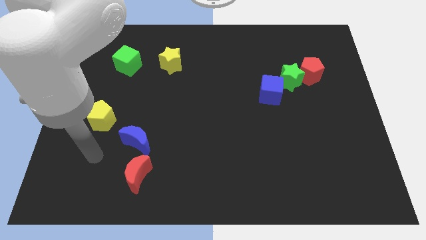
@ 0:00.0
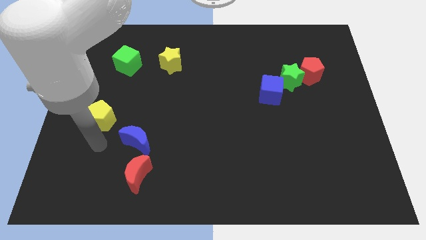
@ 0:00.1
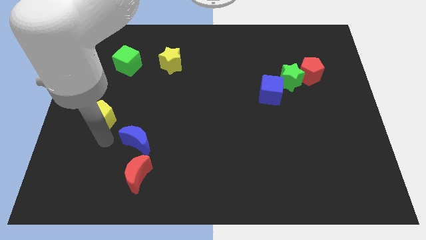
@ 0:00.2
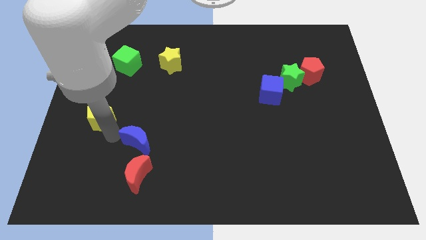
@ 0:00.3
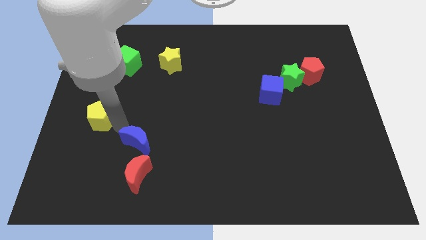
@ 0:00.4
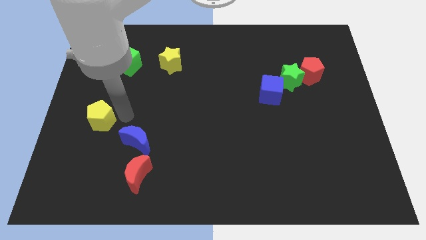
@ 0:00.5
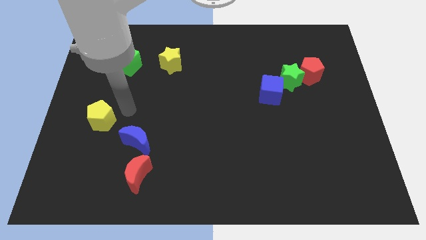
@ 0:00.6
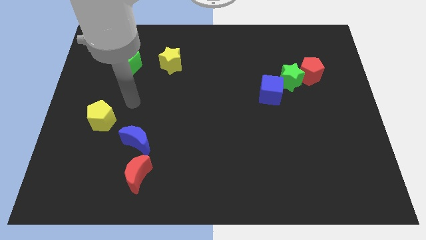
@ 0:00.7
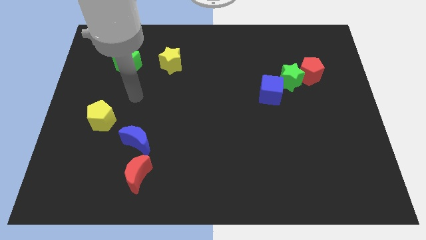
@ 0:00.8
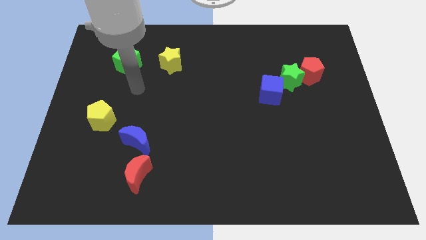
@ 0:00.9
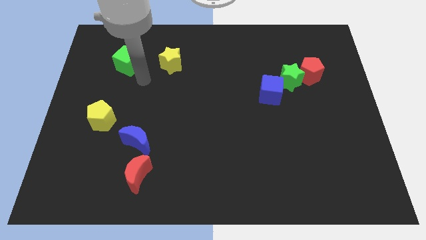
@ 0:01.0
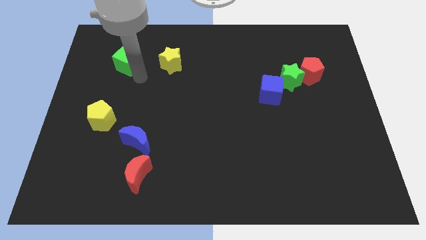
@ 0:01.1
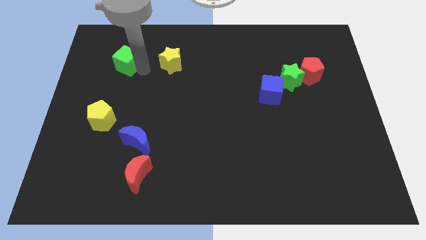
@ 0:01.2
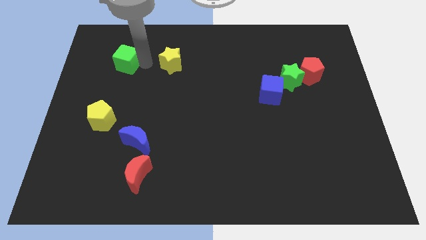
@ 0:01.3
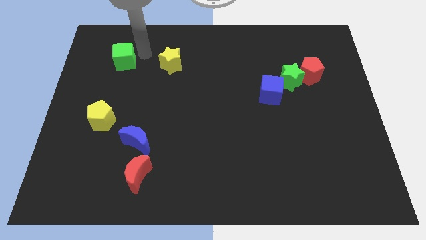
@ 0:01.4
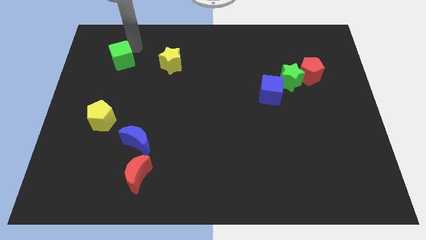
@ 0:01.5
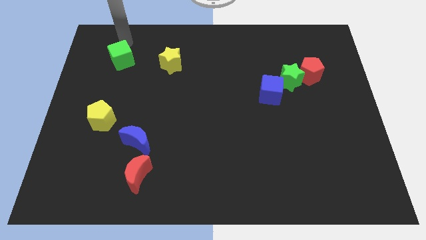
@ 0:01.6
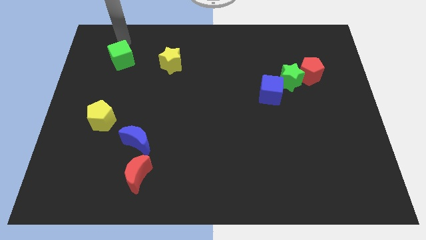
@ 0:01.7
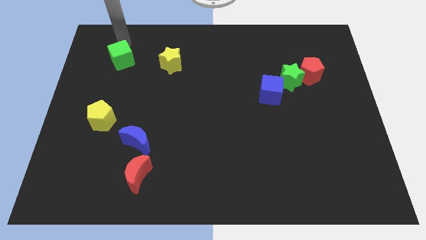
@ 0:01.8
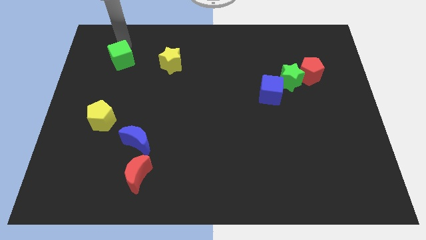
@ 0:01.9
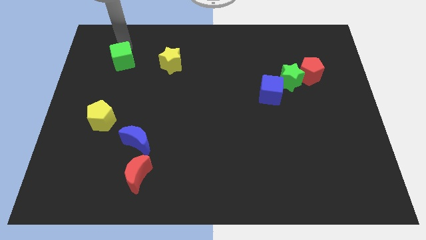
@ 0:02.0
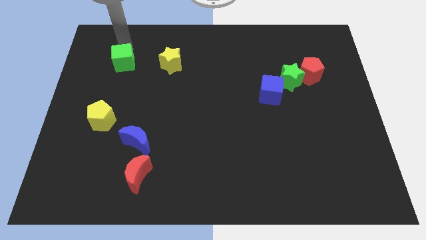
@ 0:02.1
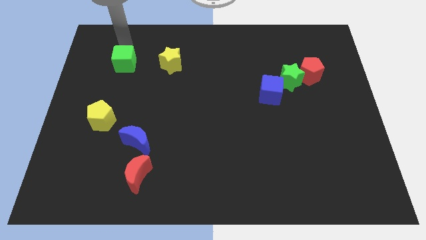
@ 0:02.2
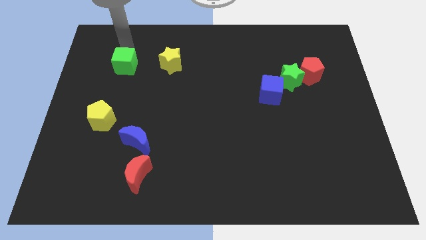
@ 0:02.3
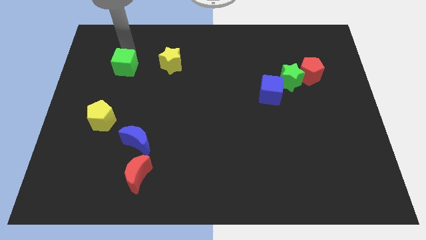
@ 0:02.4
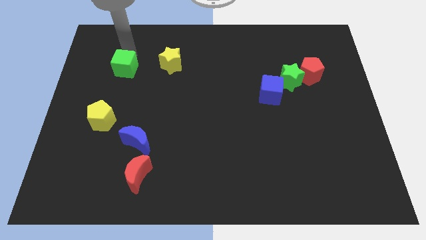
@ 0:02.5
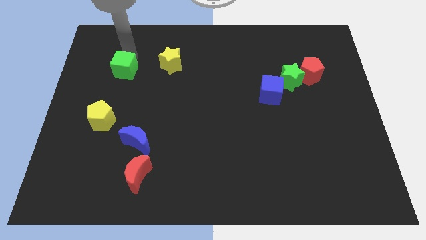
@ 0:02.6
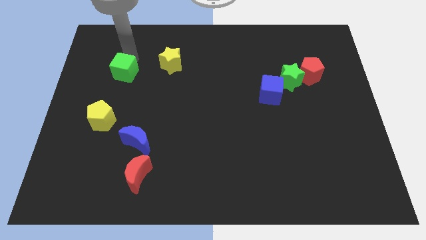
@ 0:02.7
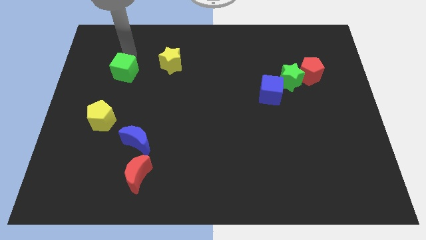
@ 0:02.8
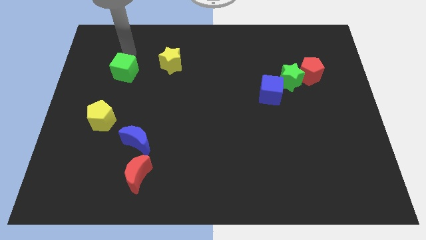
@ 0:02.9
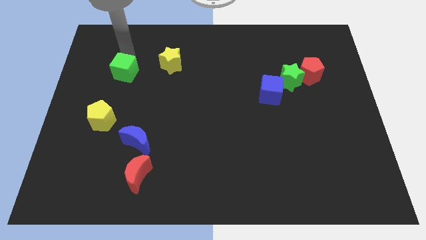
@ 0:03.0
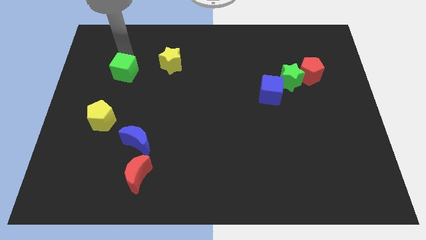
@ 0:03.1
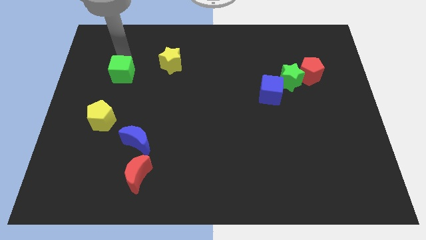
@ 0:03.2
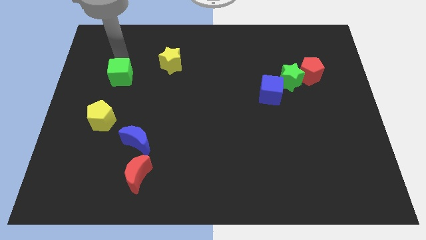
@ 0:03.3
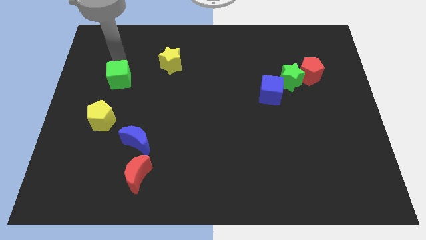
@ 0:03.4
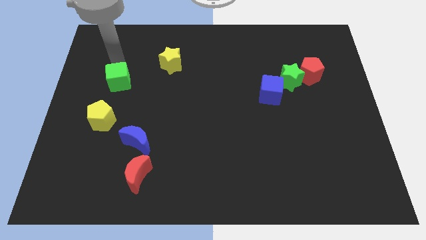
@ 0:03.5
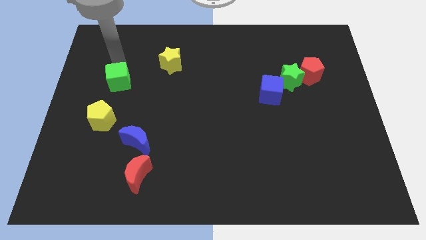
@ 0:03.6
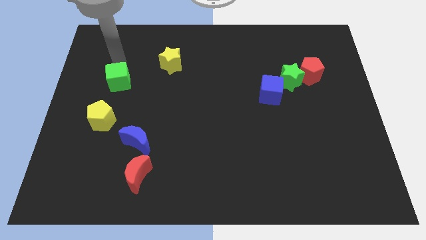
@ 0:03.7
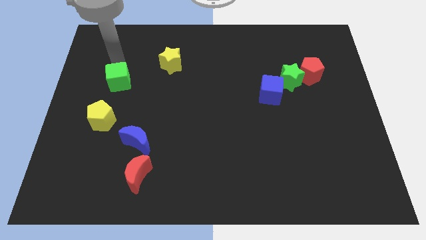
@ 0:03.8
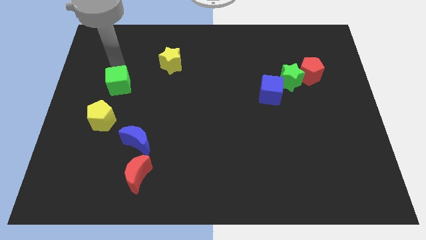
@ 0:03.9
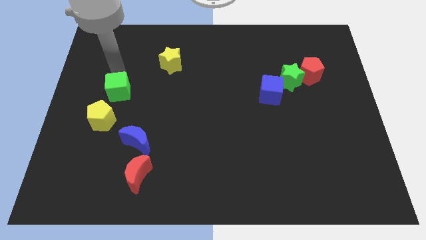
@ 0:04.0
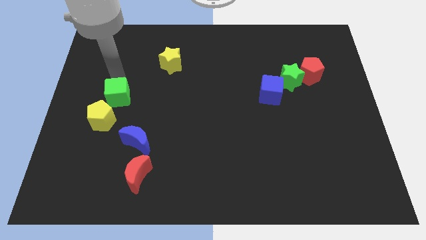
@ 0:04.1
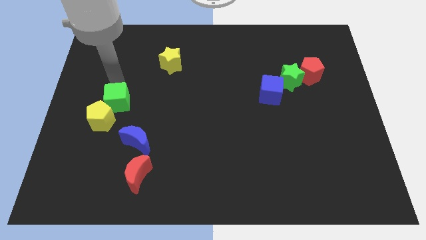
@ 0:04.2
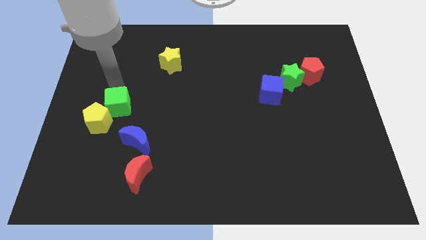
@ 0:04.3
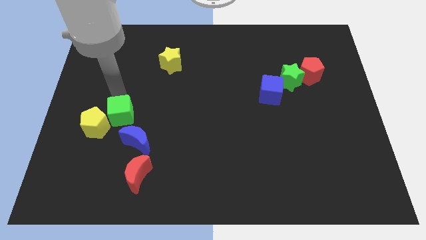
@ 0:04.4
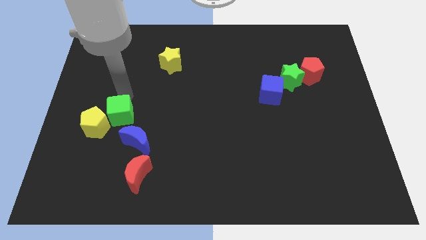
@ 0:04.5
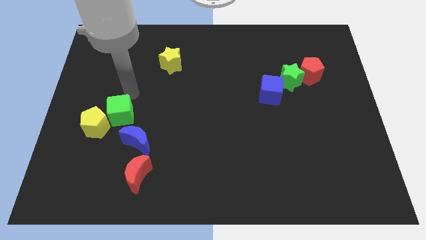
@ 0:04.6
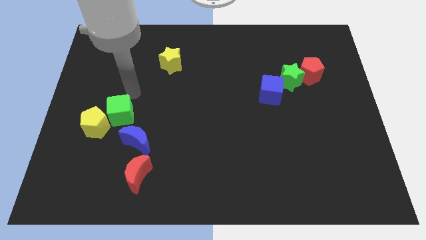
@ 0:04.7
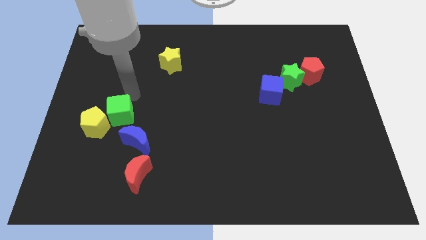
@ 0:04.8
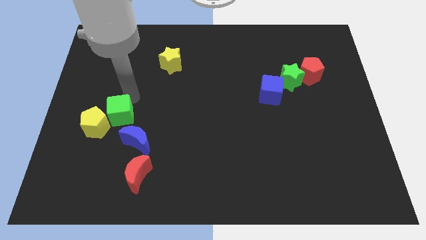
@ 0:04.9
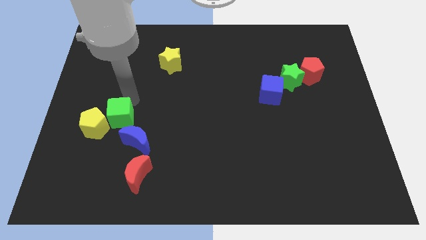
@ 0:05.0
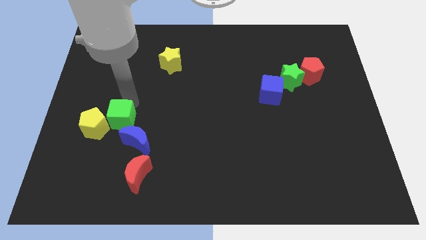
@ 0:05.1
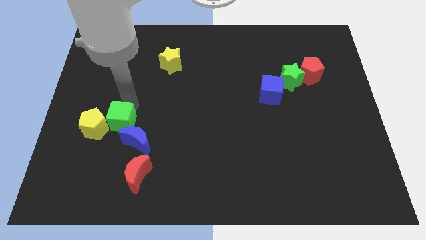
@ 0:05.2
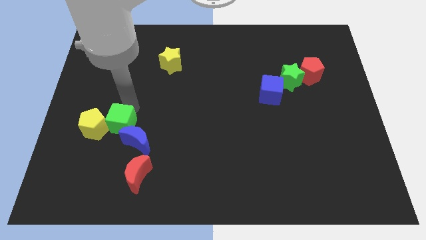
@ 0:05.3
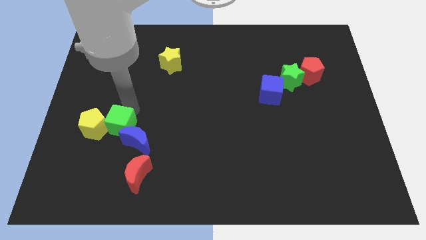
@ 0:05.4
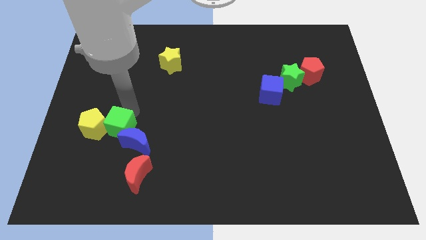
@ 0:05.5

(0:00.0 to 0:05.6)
slide the green cube down

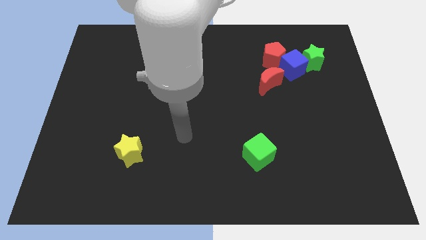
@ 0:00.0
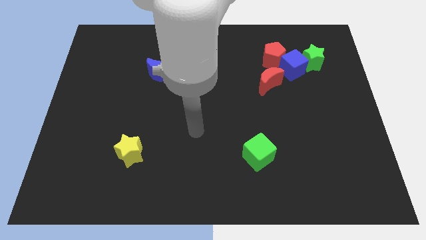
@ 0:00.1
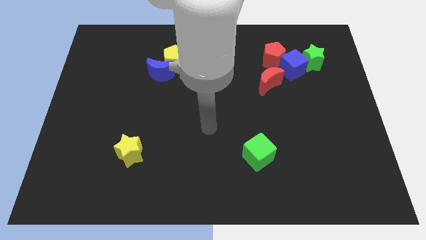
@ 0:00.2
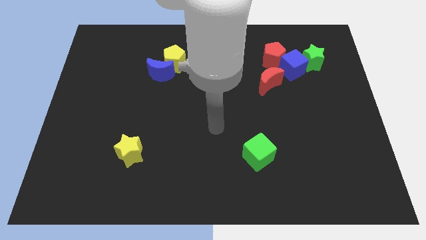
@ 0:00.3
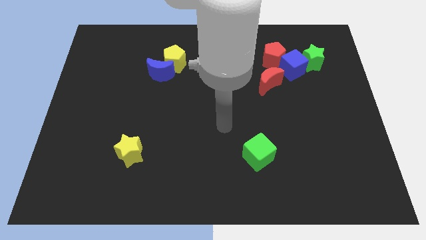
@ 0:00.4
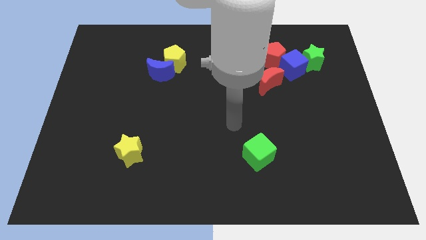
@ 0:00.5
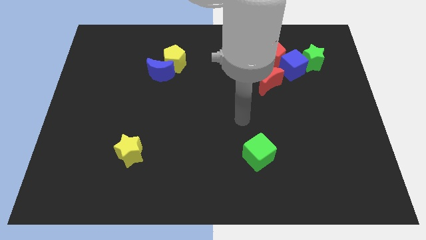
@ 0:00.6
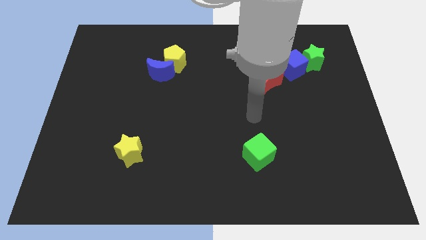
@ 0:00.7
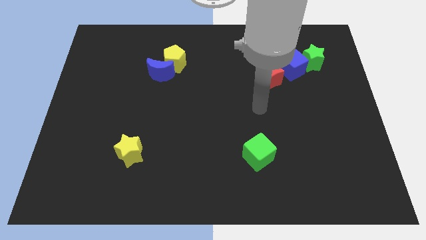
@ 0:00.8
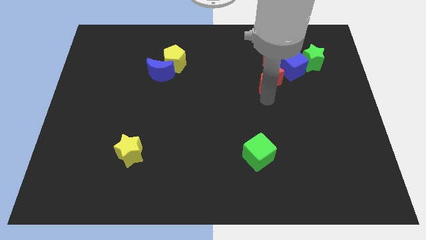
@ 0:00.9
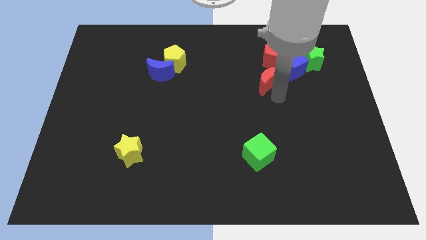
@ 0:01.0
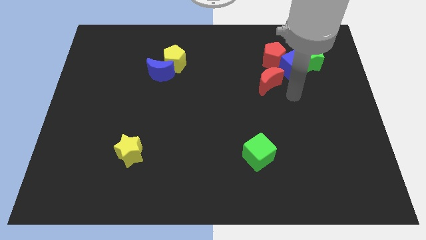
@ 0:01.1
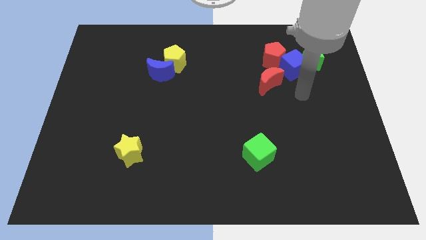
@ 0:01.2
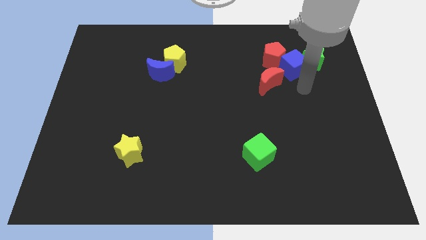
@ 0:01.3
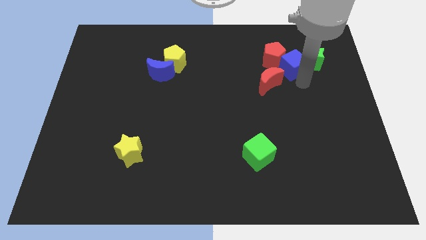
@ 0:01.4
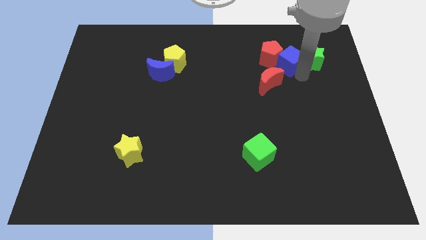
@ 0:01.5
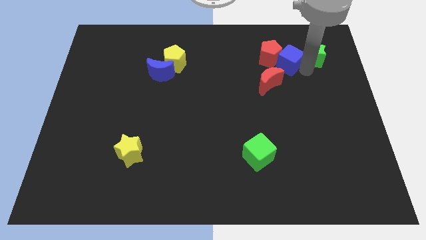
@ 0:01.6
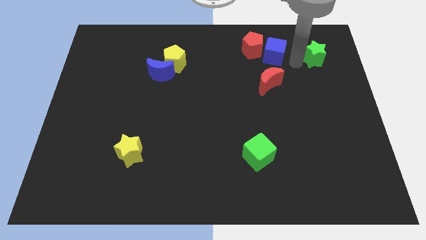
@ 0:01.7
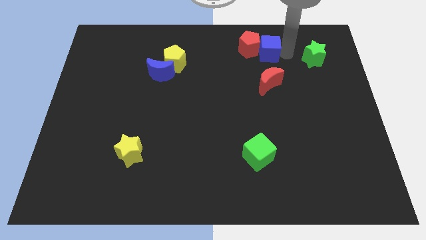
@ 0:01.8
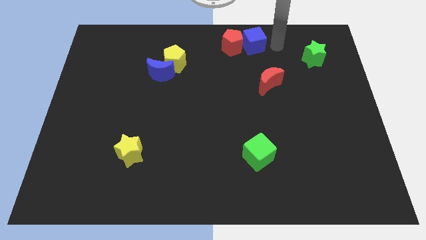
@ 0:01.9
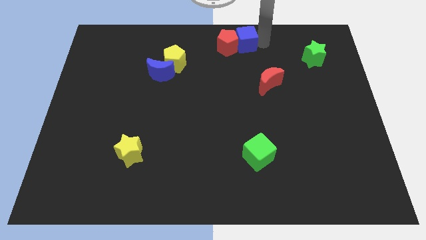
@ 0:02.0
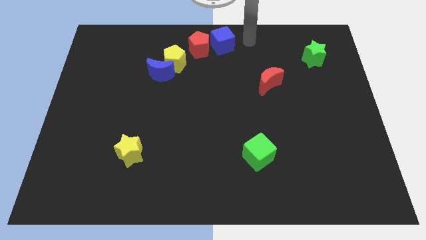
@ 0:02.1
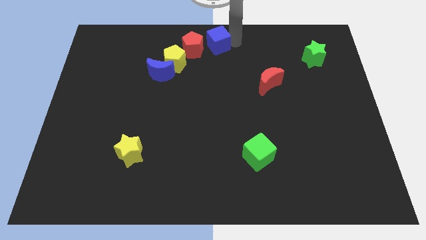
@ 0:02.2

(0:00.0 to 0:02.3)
move the red pentagon left

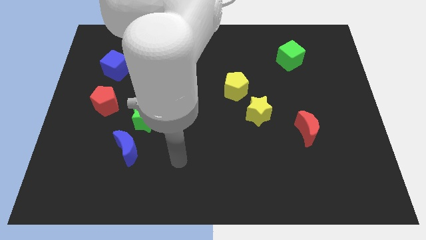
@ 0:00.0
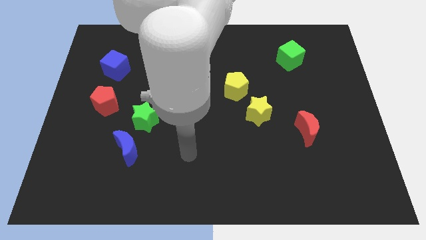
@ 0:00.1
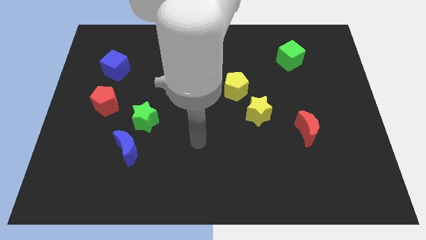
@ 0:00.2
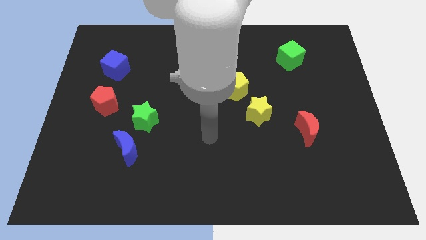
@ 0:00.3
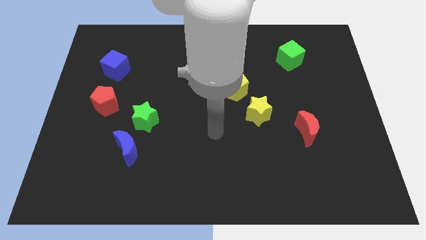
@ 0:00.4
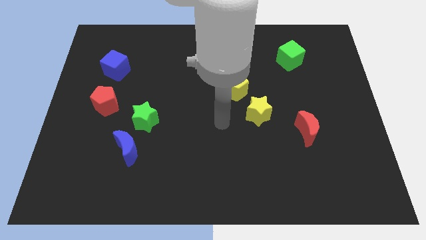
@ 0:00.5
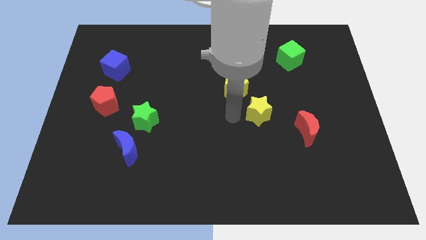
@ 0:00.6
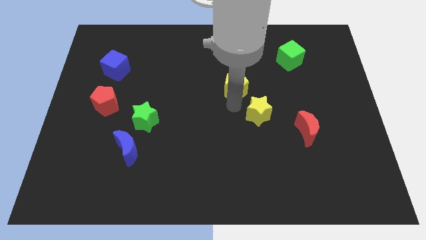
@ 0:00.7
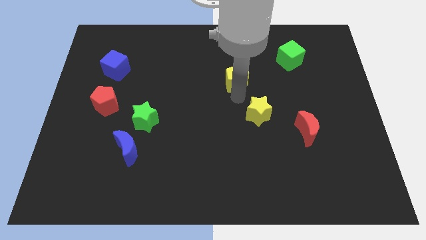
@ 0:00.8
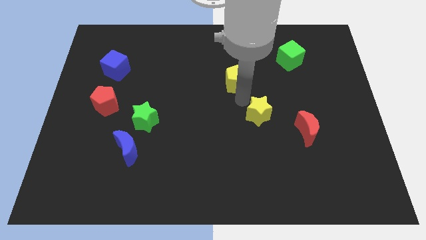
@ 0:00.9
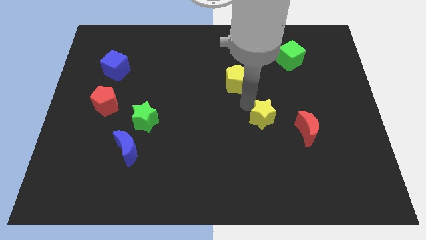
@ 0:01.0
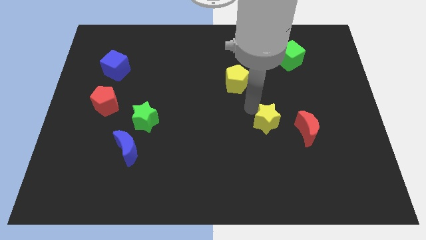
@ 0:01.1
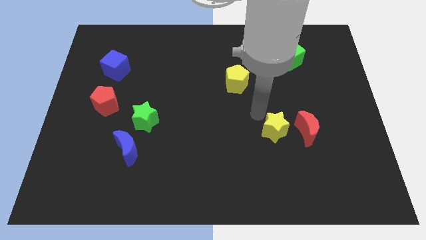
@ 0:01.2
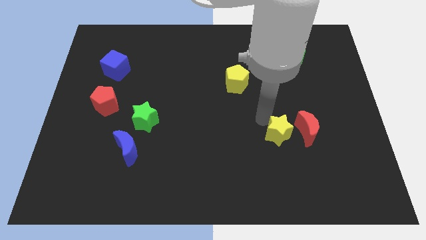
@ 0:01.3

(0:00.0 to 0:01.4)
slightly slide the yellow star diagonally downwards and right
